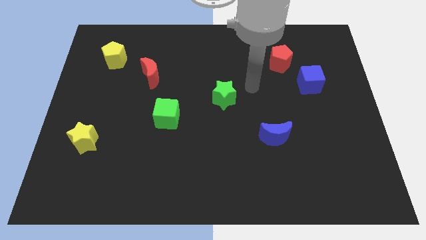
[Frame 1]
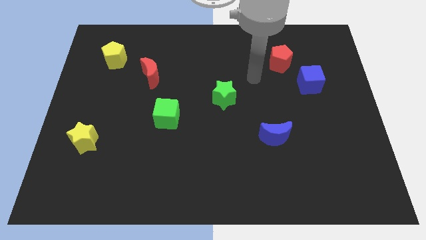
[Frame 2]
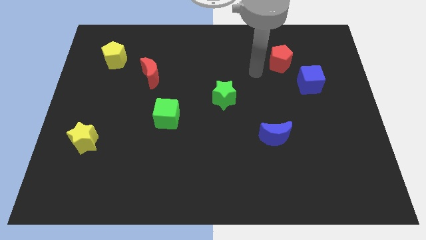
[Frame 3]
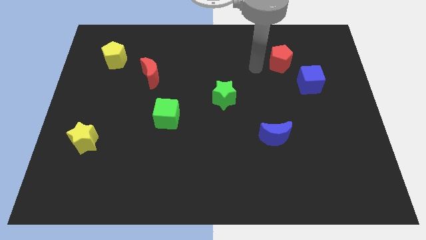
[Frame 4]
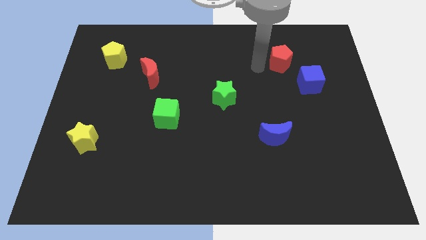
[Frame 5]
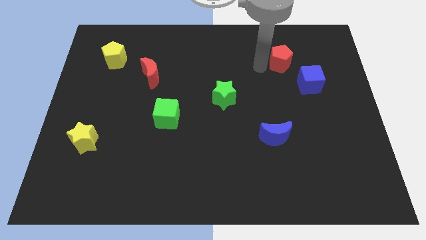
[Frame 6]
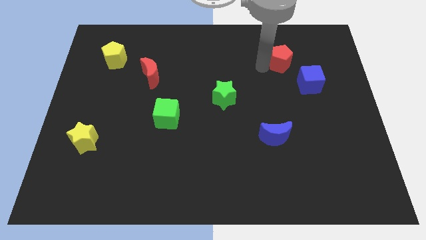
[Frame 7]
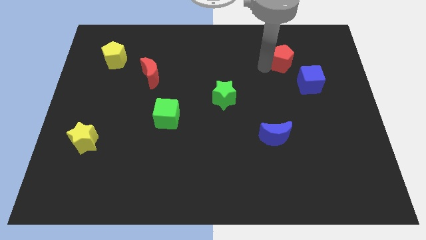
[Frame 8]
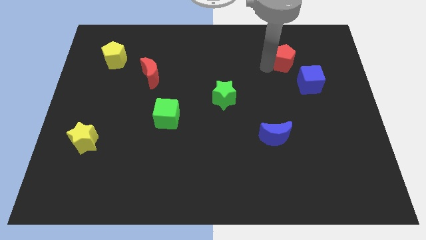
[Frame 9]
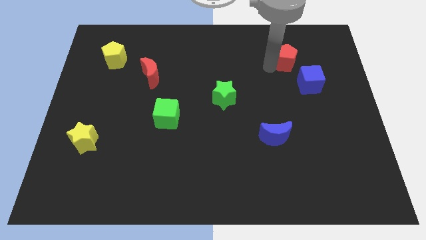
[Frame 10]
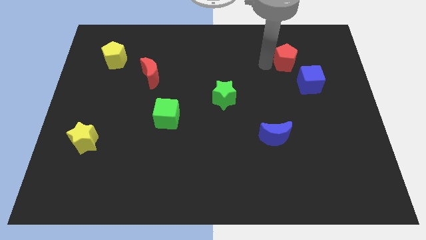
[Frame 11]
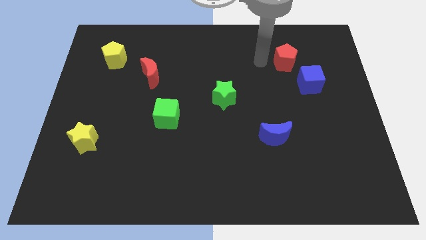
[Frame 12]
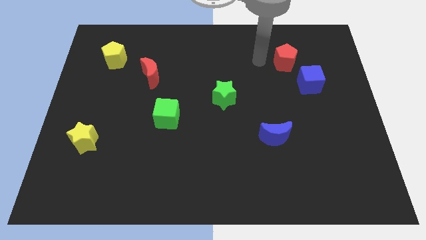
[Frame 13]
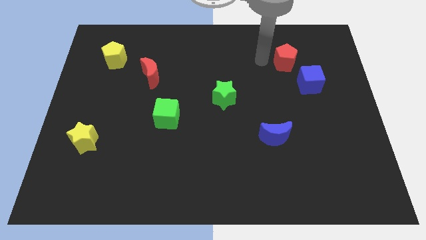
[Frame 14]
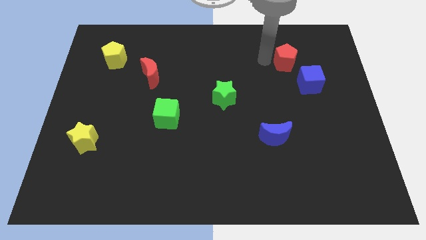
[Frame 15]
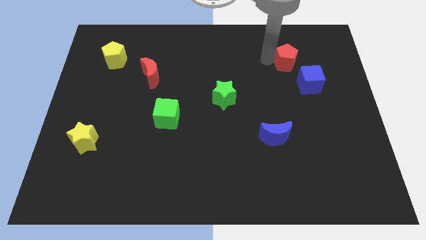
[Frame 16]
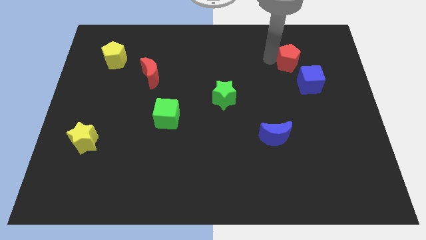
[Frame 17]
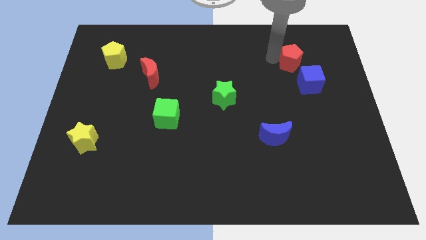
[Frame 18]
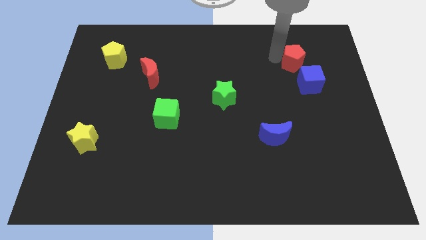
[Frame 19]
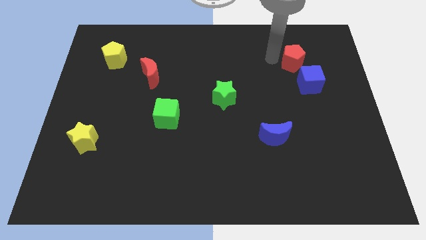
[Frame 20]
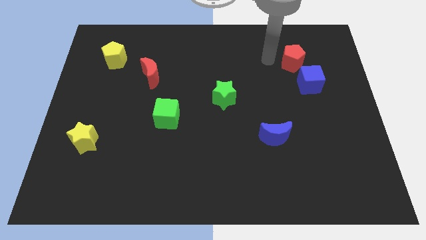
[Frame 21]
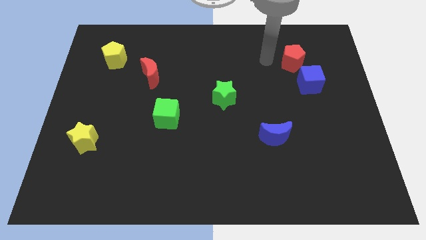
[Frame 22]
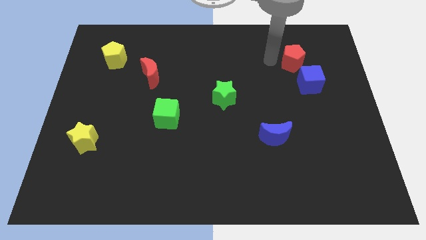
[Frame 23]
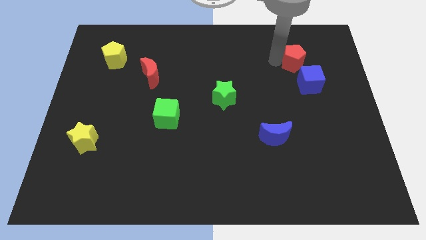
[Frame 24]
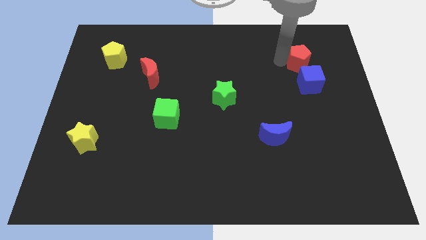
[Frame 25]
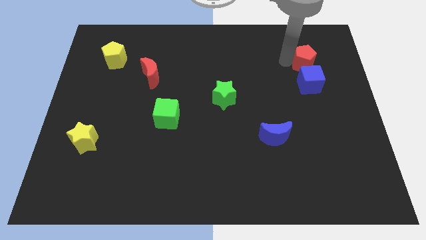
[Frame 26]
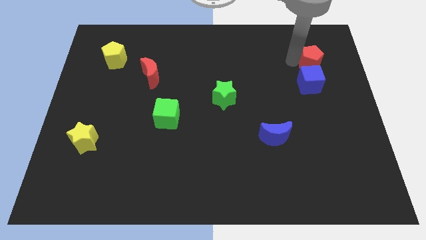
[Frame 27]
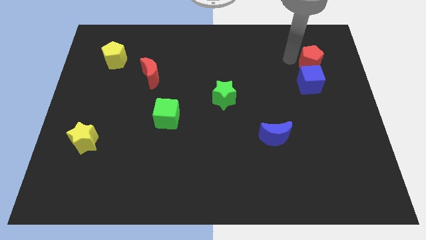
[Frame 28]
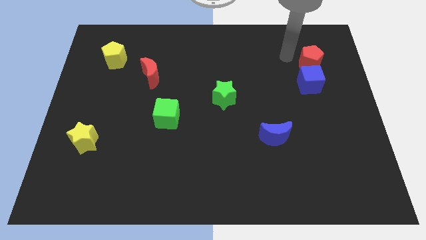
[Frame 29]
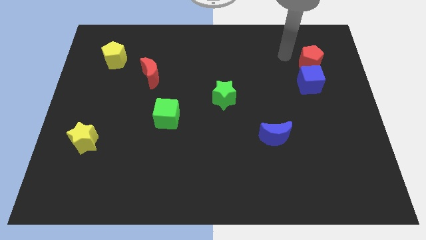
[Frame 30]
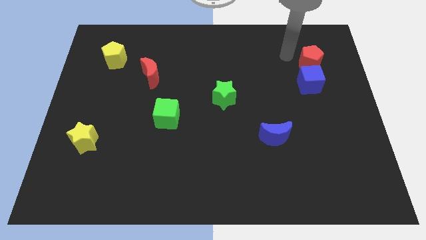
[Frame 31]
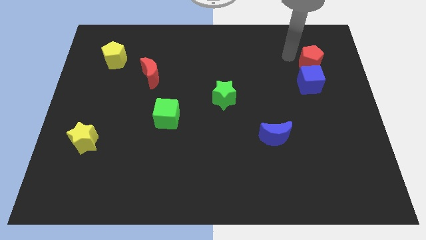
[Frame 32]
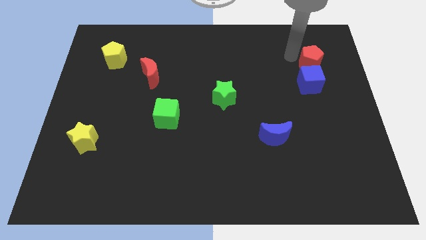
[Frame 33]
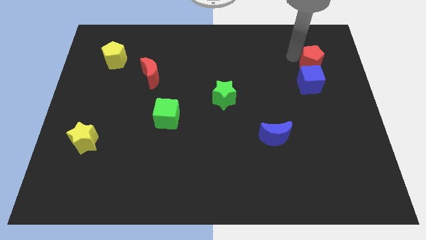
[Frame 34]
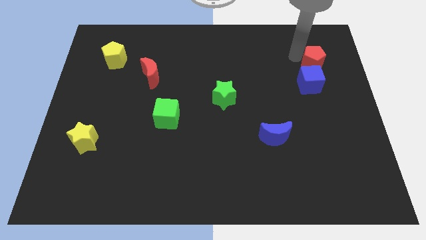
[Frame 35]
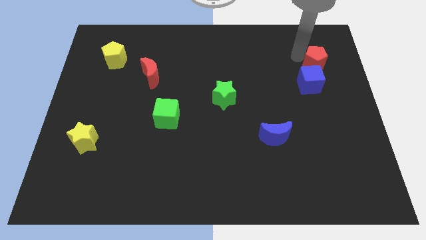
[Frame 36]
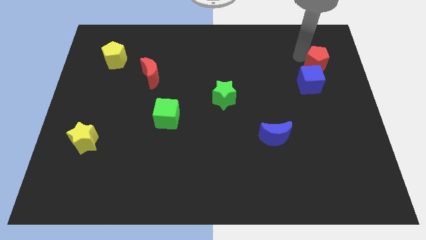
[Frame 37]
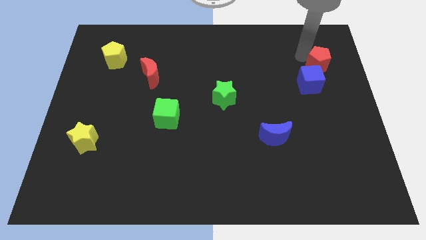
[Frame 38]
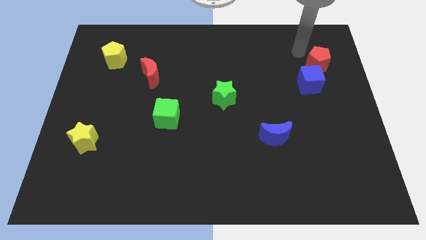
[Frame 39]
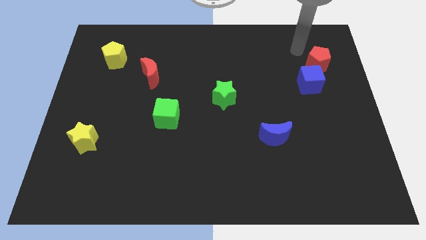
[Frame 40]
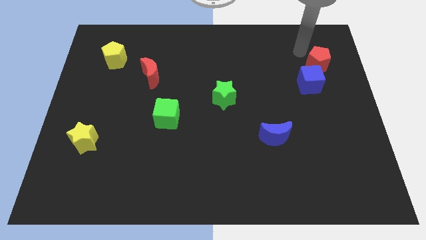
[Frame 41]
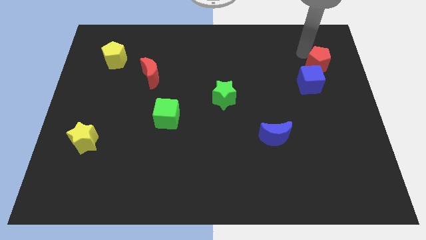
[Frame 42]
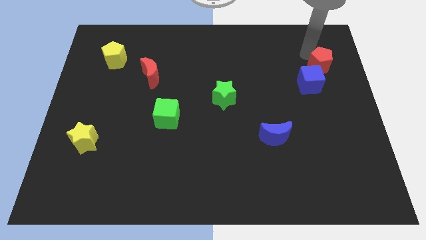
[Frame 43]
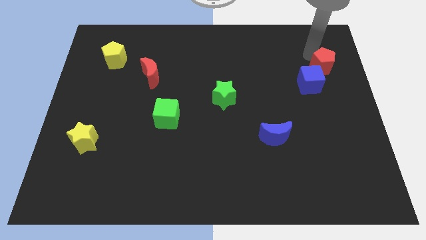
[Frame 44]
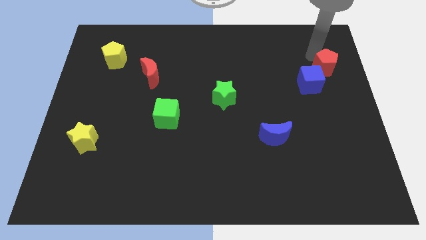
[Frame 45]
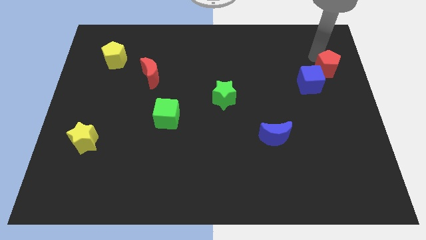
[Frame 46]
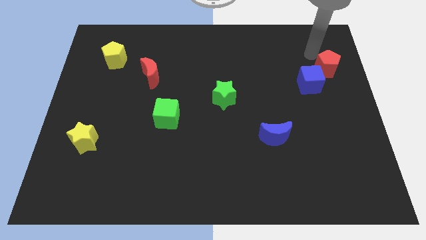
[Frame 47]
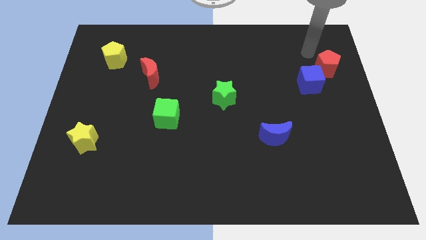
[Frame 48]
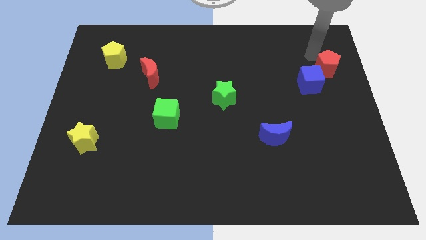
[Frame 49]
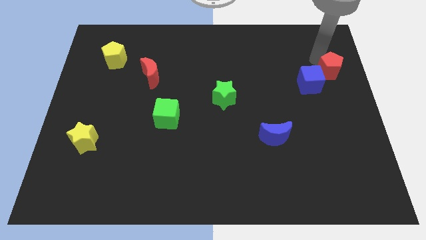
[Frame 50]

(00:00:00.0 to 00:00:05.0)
move the red pentagon to the center right
